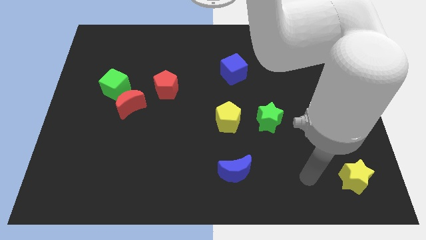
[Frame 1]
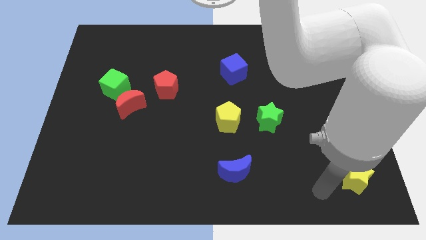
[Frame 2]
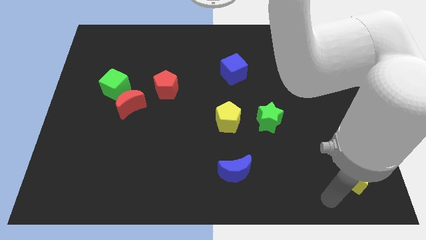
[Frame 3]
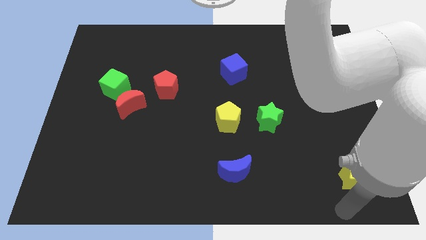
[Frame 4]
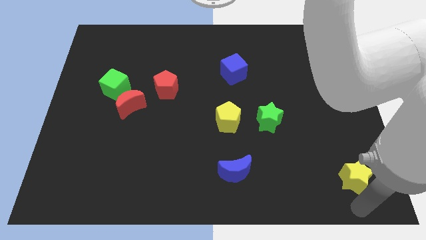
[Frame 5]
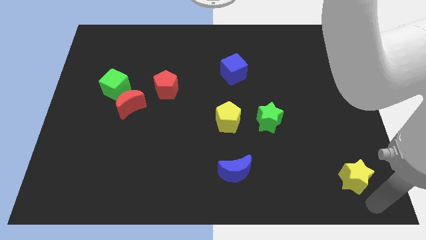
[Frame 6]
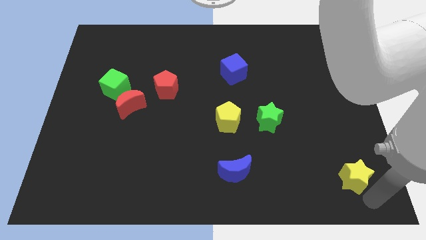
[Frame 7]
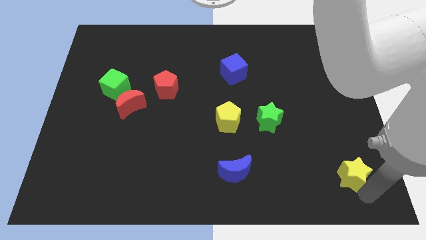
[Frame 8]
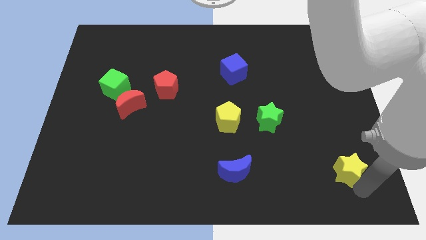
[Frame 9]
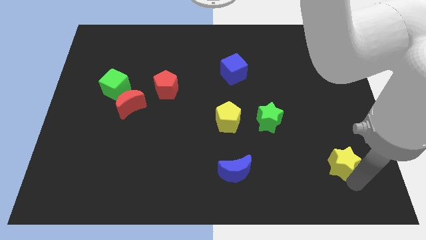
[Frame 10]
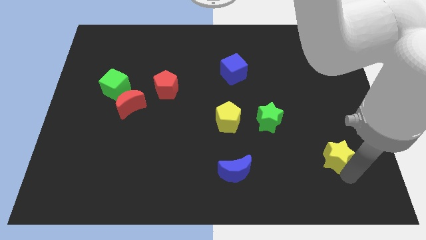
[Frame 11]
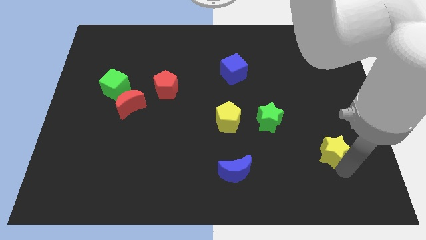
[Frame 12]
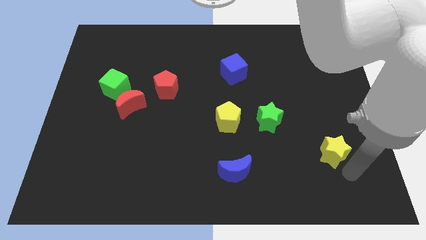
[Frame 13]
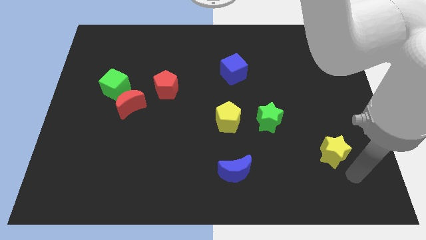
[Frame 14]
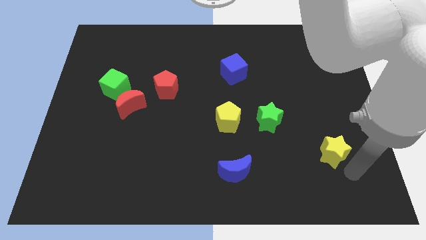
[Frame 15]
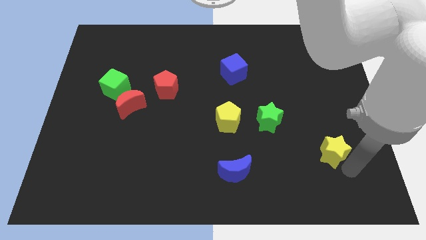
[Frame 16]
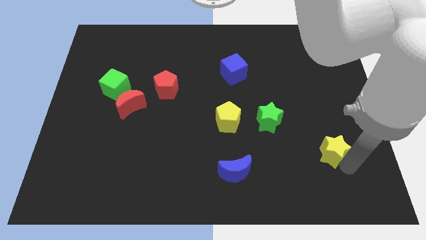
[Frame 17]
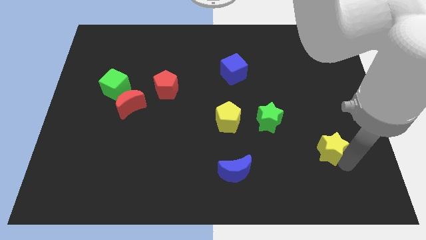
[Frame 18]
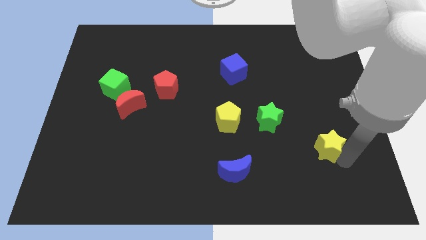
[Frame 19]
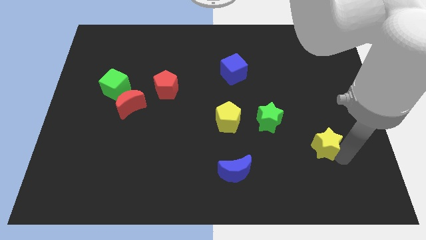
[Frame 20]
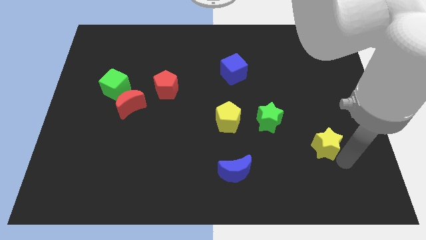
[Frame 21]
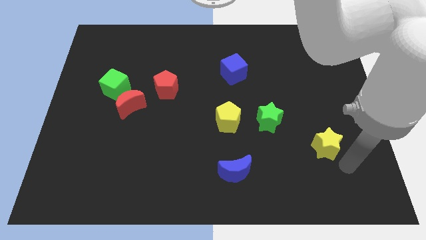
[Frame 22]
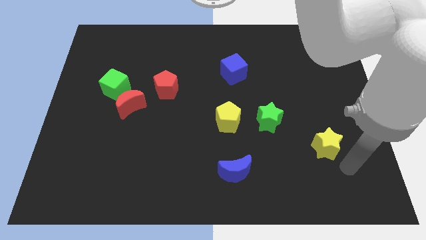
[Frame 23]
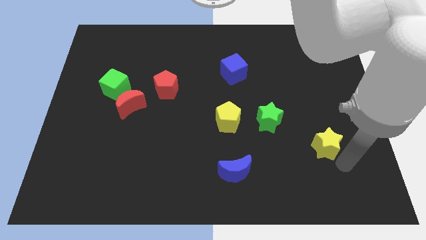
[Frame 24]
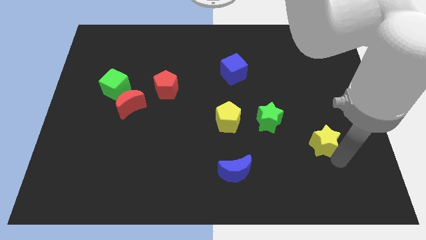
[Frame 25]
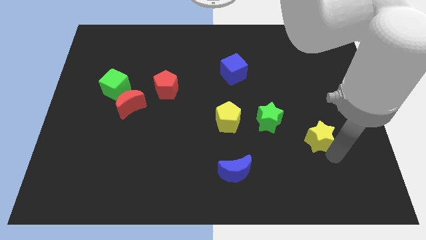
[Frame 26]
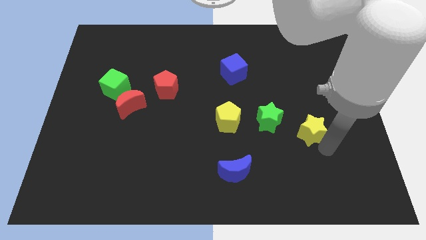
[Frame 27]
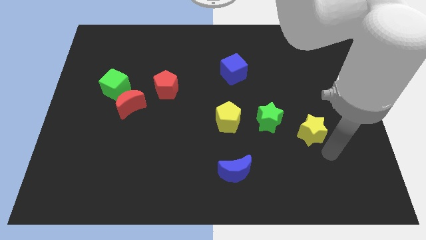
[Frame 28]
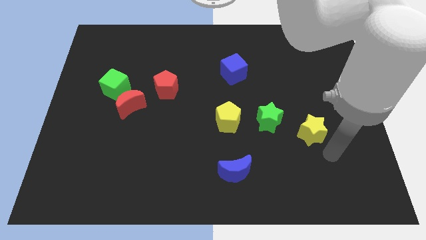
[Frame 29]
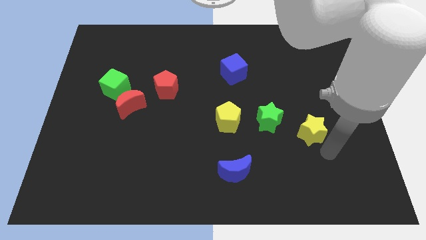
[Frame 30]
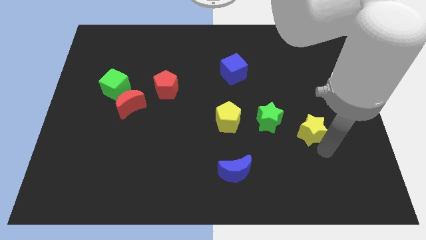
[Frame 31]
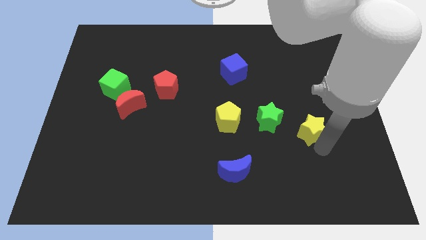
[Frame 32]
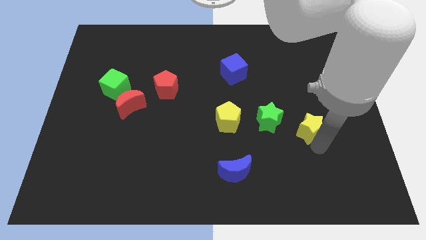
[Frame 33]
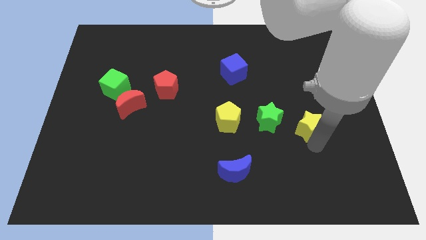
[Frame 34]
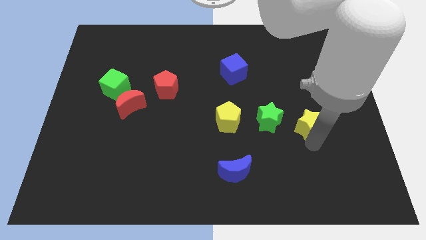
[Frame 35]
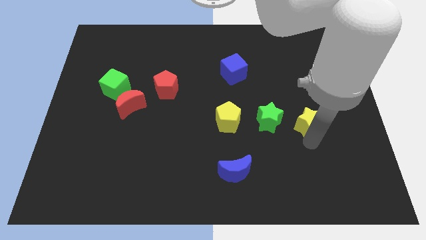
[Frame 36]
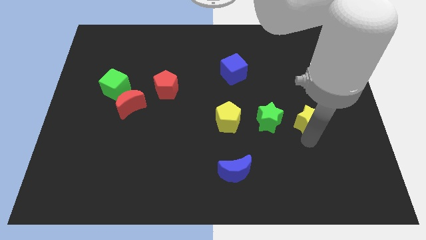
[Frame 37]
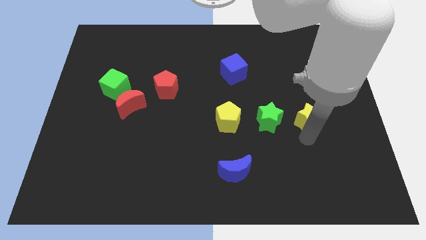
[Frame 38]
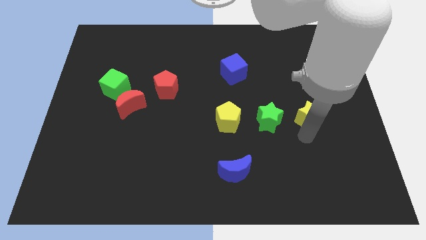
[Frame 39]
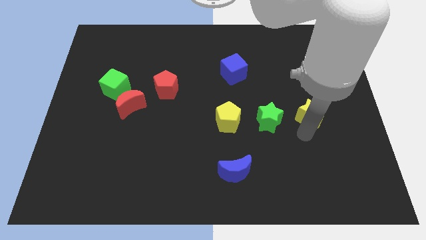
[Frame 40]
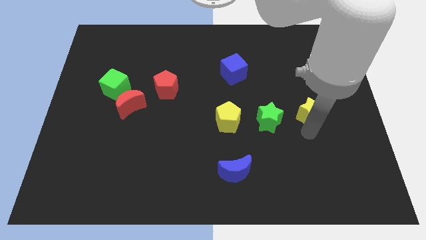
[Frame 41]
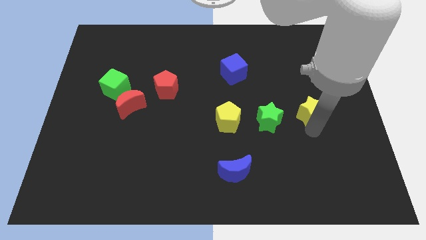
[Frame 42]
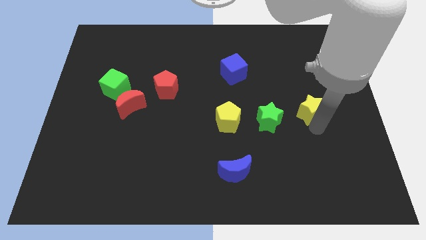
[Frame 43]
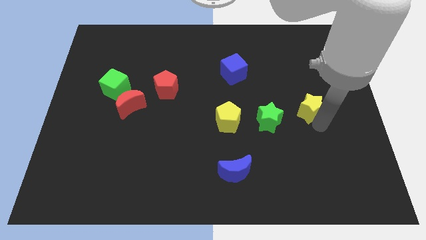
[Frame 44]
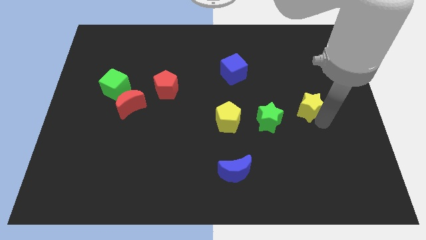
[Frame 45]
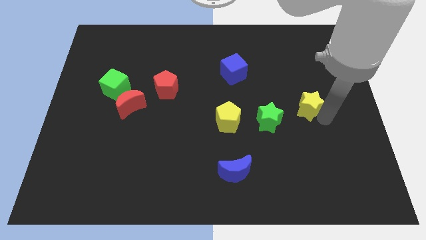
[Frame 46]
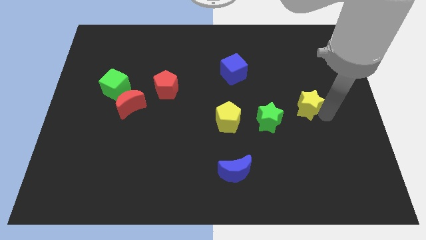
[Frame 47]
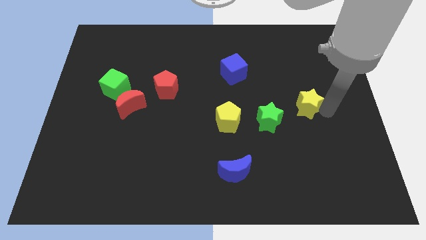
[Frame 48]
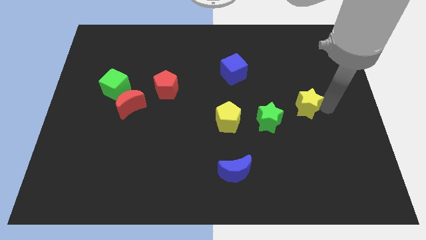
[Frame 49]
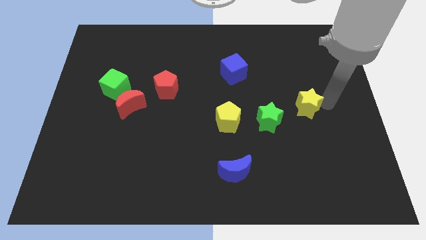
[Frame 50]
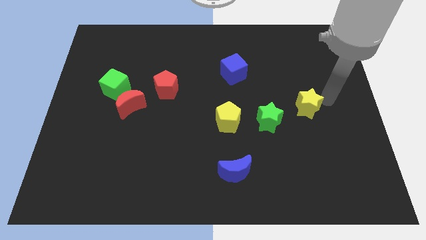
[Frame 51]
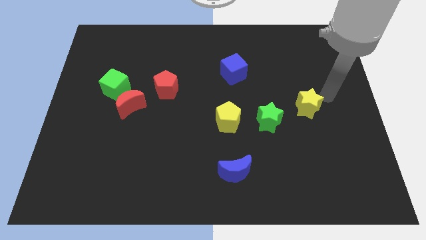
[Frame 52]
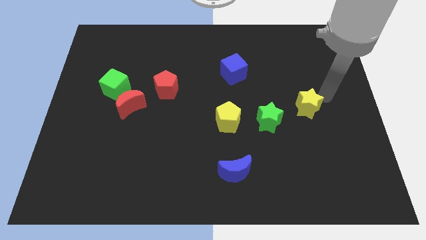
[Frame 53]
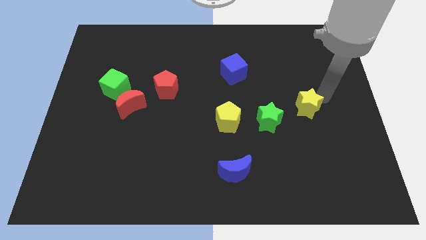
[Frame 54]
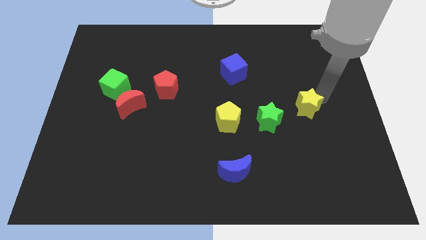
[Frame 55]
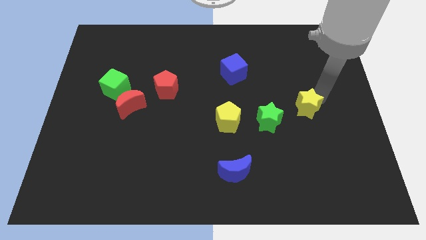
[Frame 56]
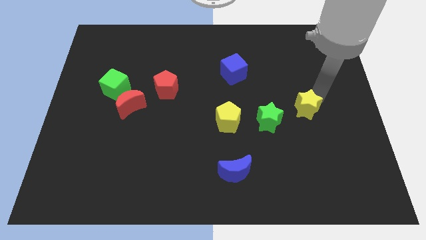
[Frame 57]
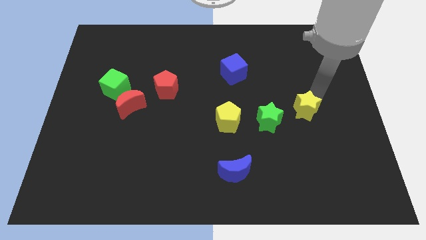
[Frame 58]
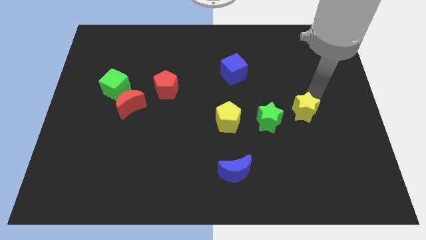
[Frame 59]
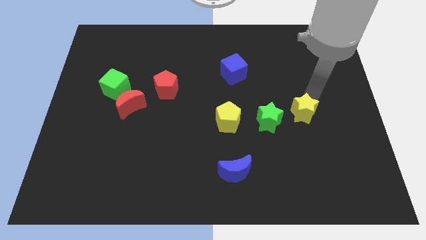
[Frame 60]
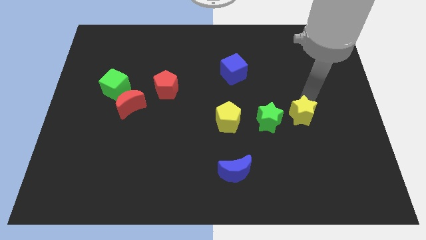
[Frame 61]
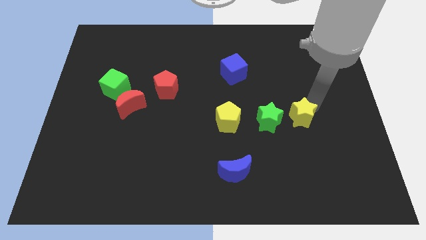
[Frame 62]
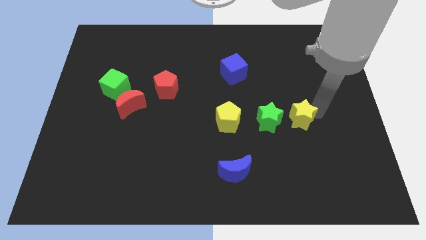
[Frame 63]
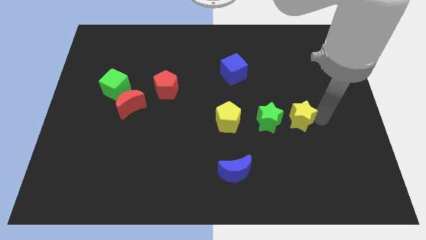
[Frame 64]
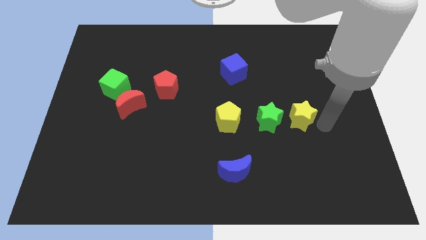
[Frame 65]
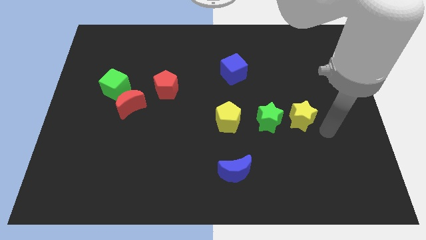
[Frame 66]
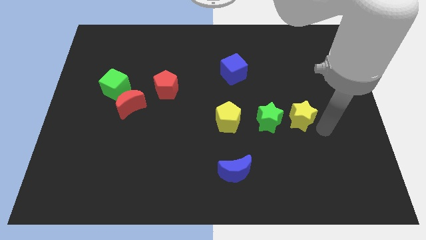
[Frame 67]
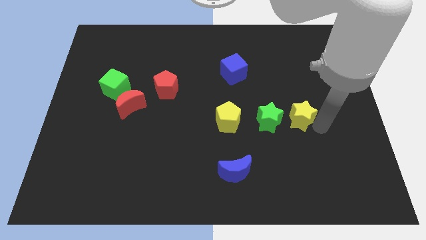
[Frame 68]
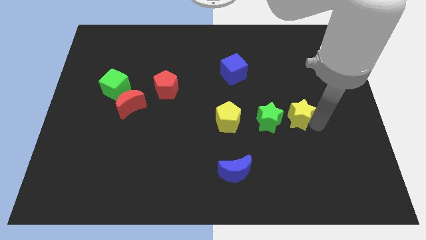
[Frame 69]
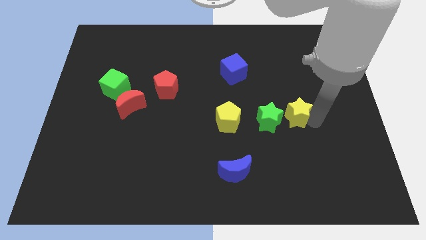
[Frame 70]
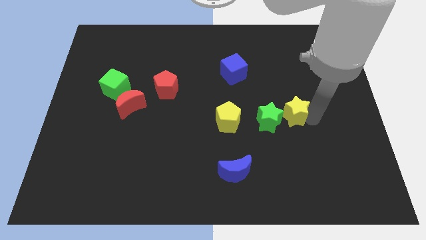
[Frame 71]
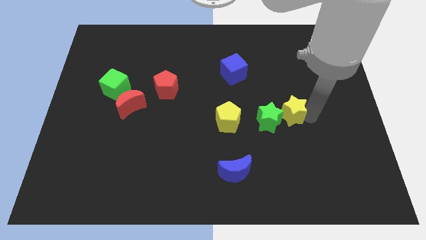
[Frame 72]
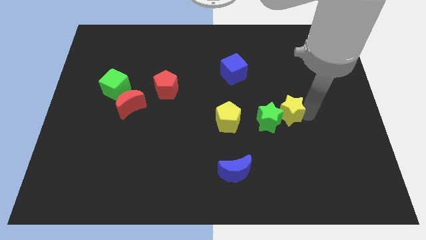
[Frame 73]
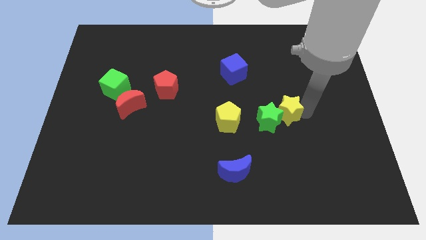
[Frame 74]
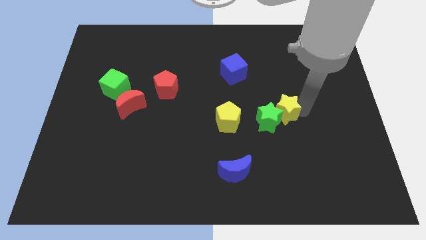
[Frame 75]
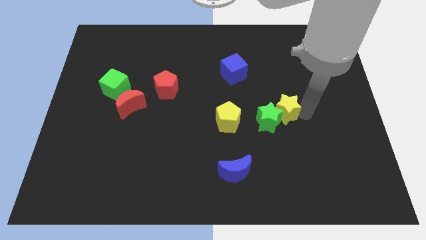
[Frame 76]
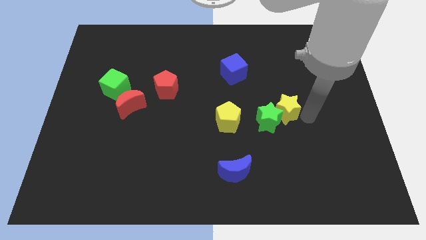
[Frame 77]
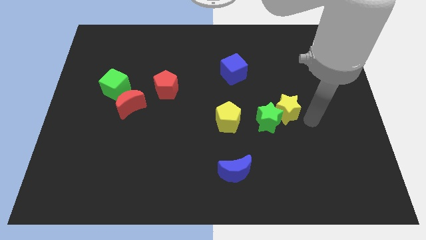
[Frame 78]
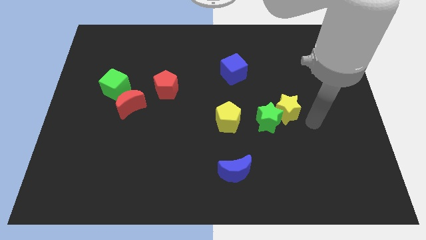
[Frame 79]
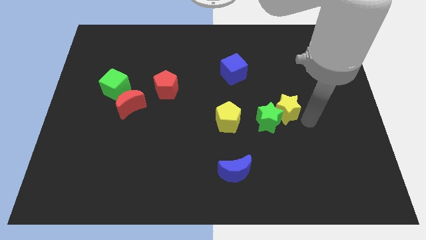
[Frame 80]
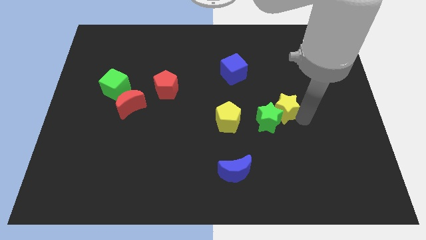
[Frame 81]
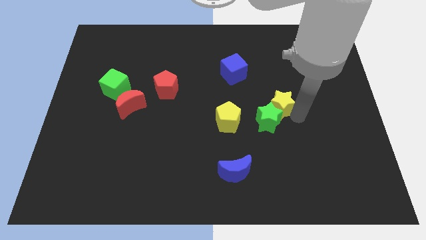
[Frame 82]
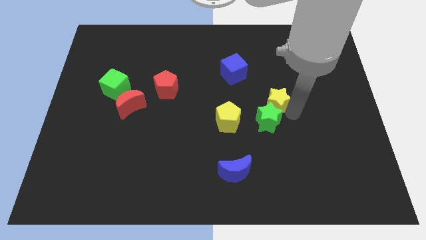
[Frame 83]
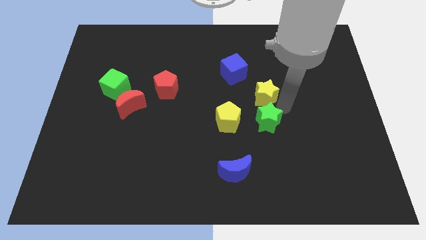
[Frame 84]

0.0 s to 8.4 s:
put the yellow star to the middle of the board
